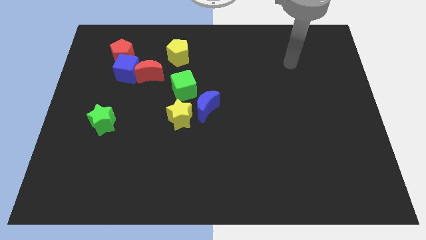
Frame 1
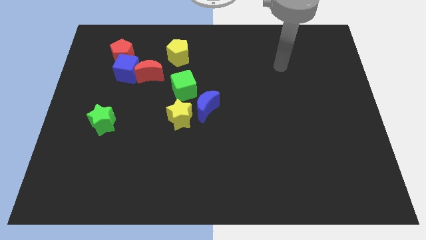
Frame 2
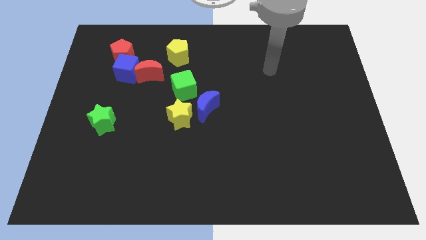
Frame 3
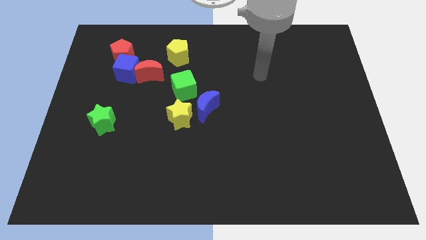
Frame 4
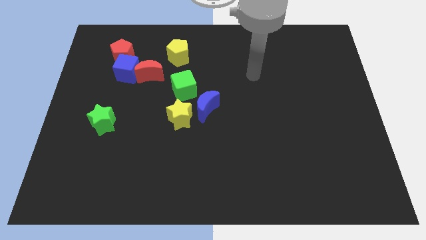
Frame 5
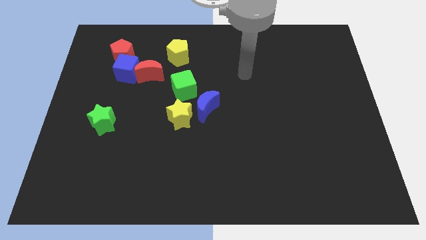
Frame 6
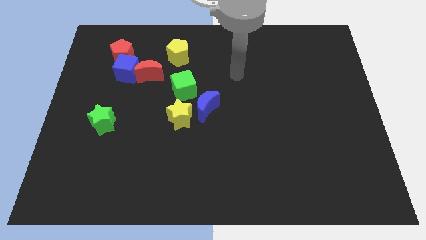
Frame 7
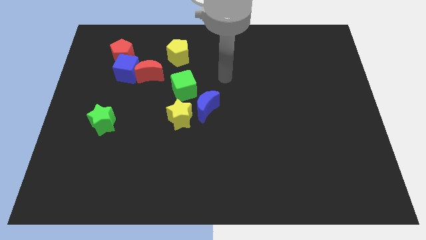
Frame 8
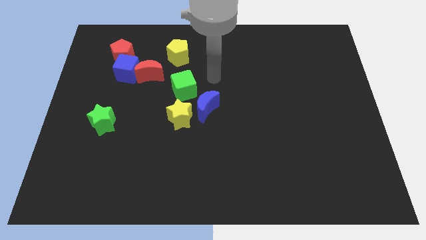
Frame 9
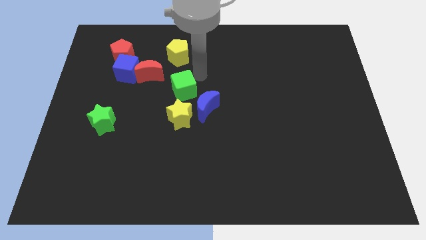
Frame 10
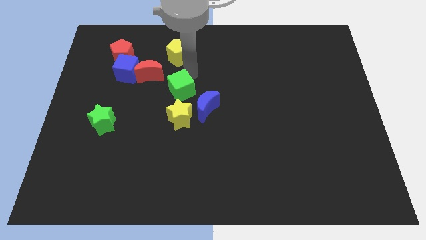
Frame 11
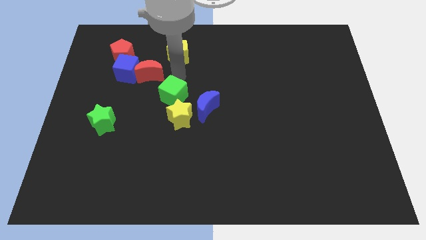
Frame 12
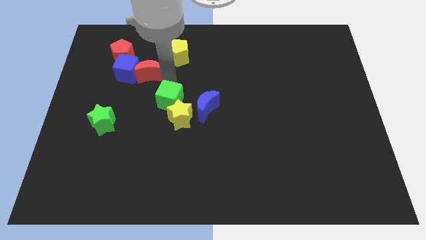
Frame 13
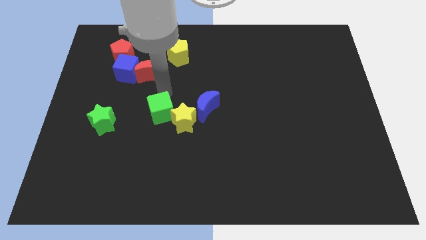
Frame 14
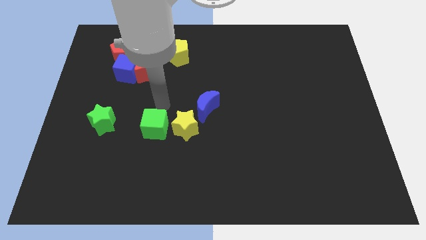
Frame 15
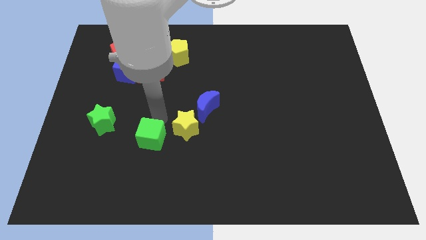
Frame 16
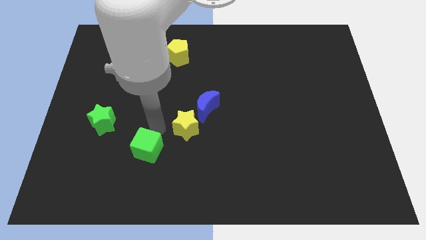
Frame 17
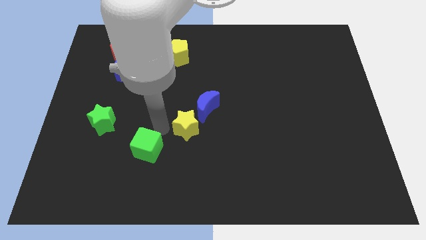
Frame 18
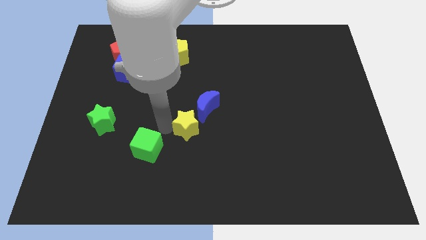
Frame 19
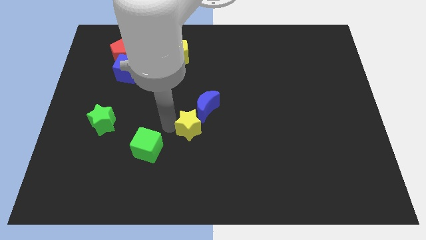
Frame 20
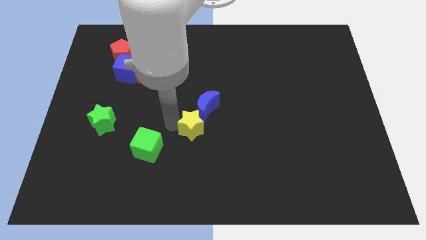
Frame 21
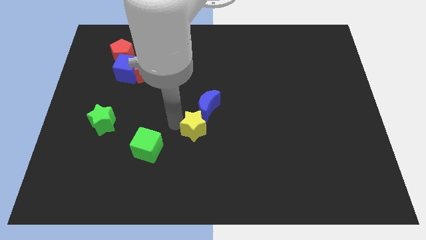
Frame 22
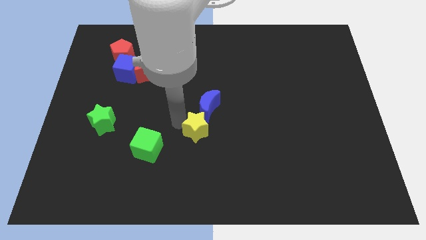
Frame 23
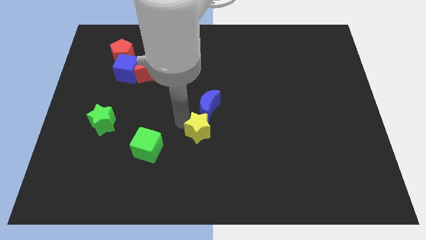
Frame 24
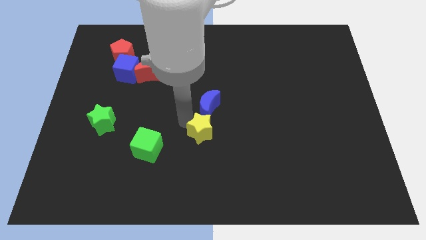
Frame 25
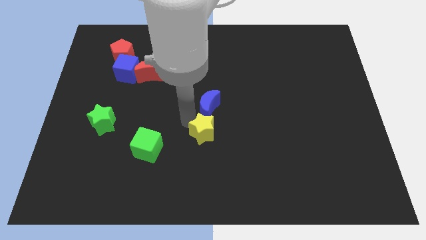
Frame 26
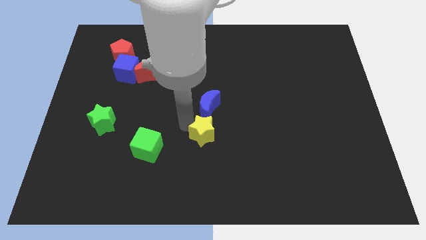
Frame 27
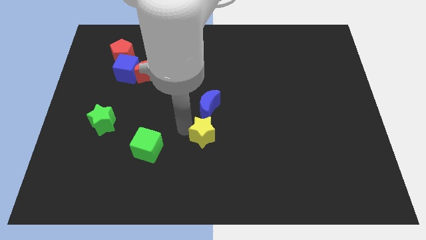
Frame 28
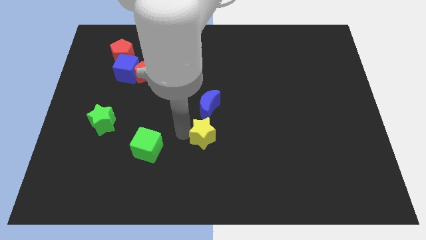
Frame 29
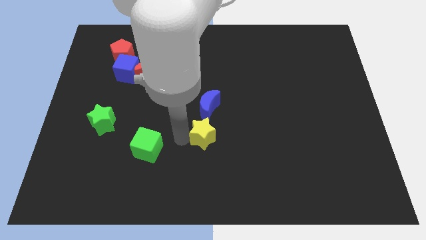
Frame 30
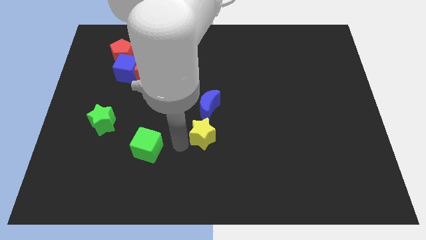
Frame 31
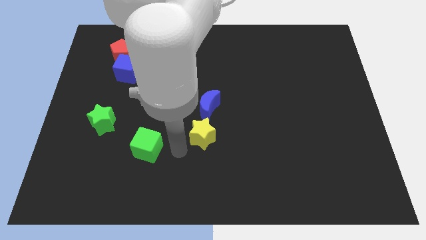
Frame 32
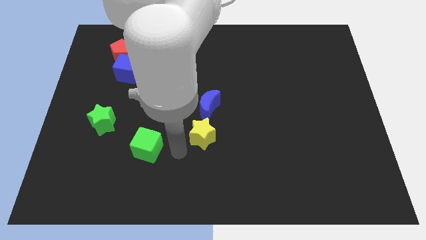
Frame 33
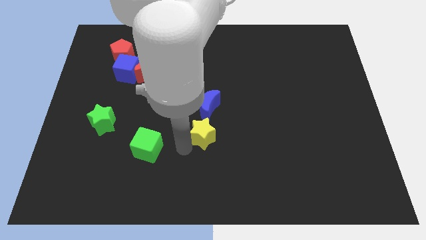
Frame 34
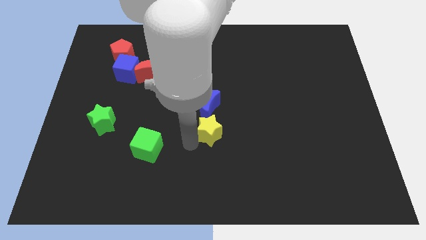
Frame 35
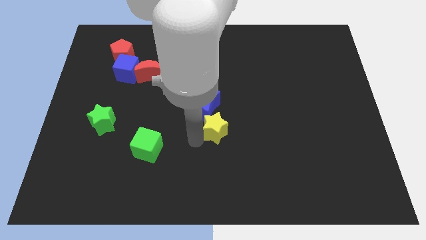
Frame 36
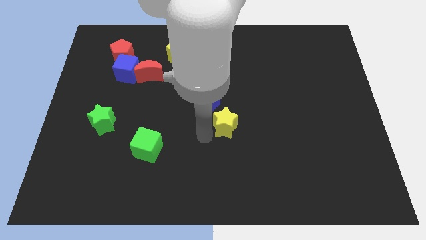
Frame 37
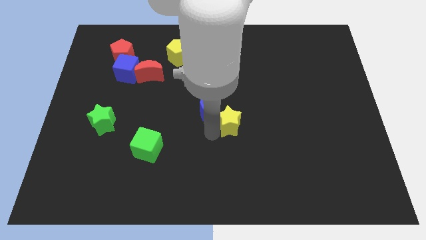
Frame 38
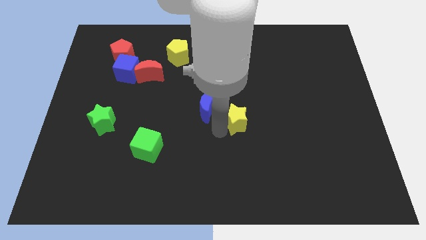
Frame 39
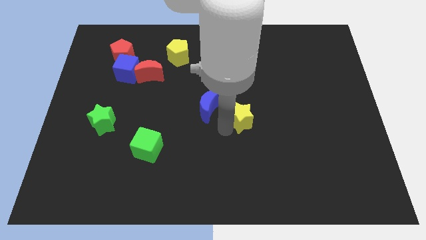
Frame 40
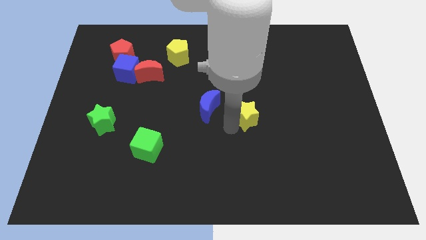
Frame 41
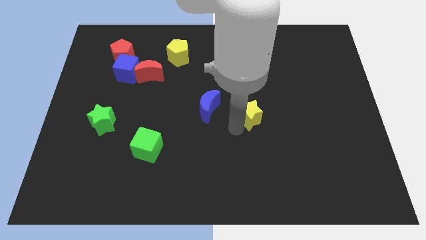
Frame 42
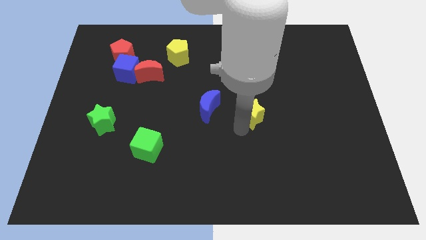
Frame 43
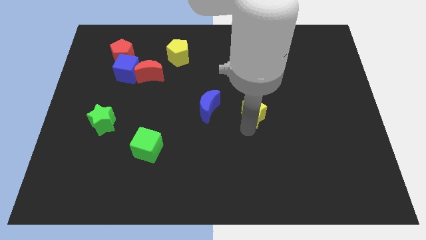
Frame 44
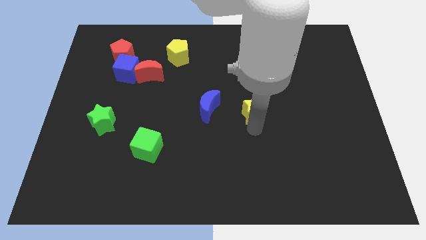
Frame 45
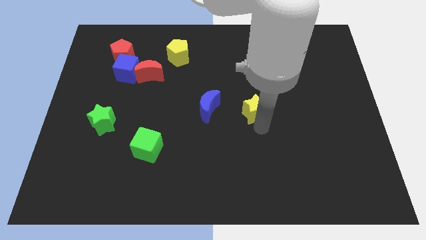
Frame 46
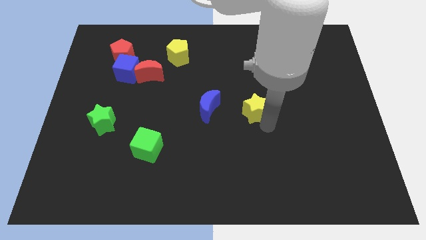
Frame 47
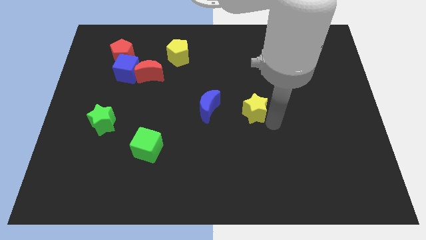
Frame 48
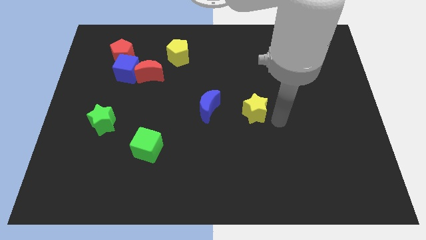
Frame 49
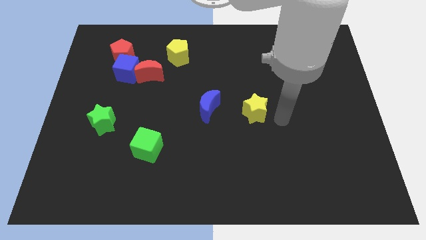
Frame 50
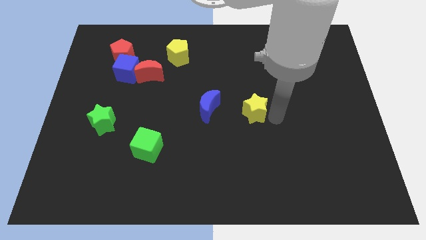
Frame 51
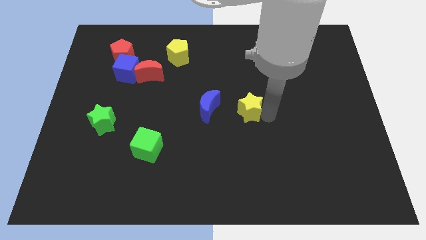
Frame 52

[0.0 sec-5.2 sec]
slightly move the yellow star upwards and then to the right

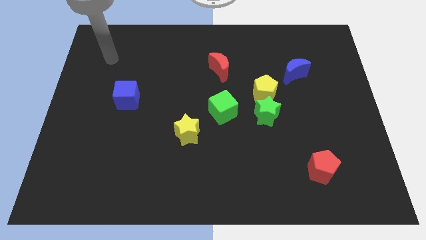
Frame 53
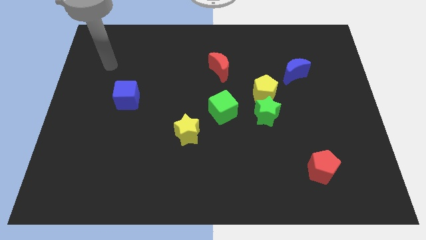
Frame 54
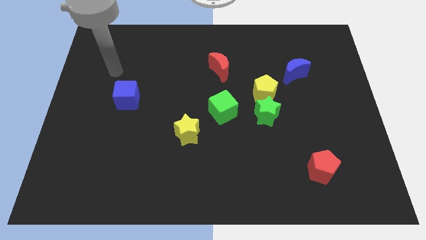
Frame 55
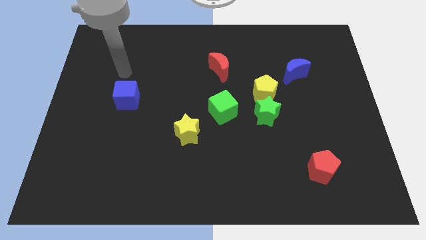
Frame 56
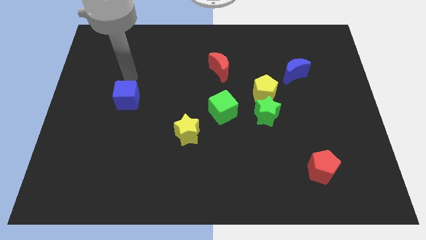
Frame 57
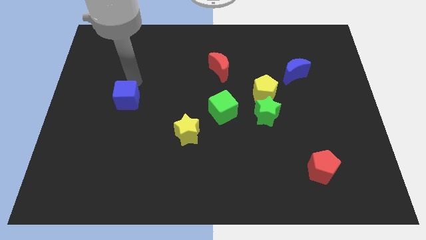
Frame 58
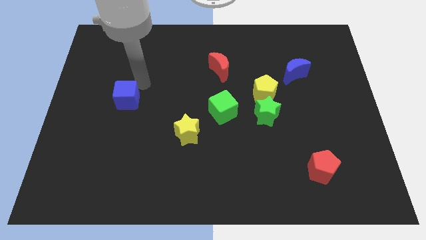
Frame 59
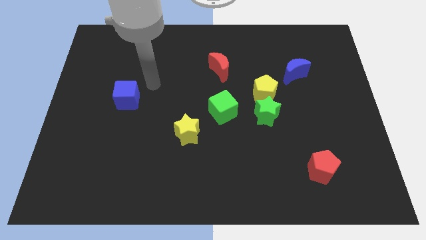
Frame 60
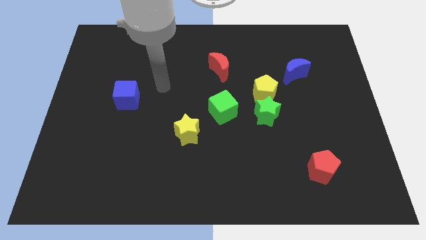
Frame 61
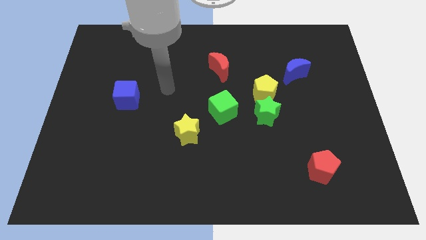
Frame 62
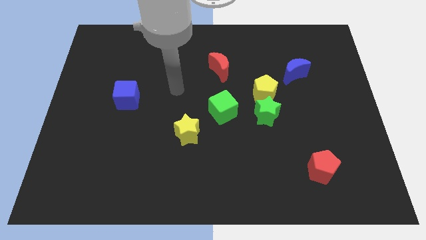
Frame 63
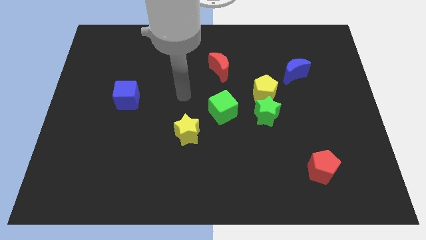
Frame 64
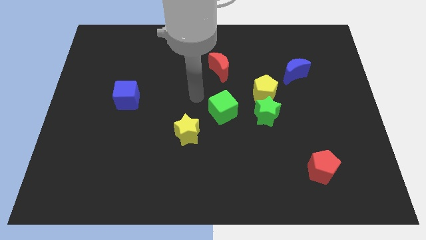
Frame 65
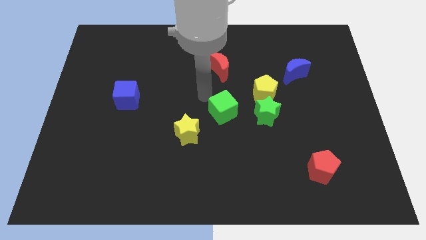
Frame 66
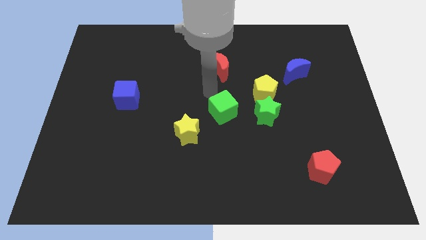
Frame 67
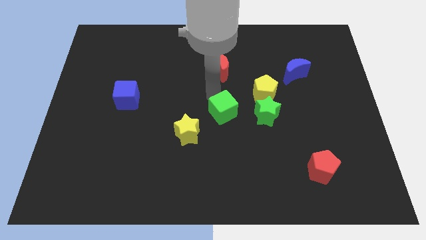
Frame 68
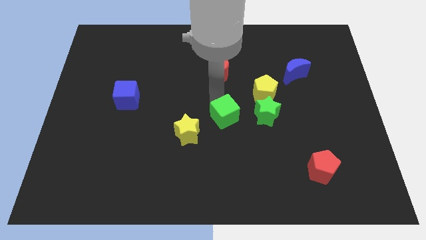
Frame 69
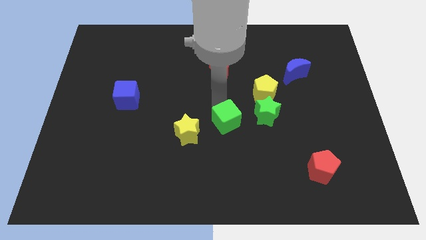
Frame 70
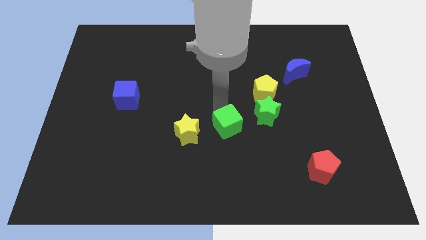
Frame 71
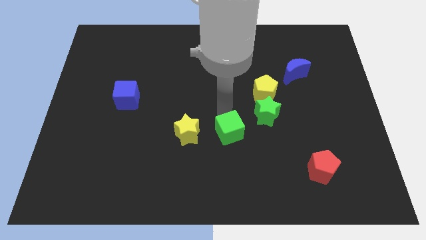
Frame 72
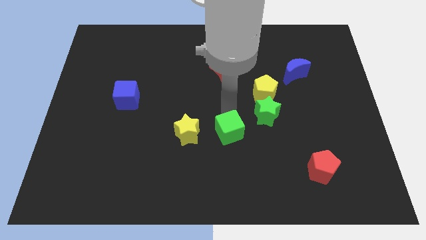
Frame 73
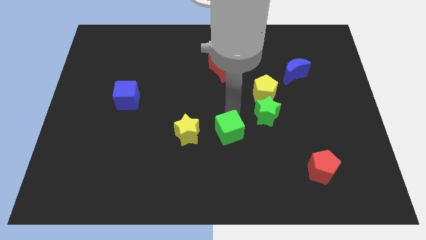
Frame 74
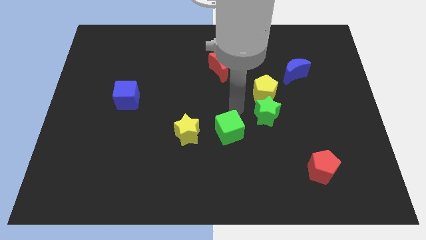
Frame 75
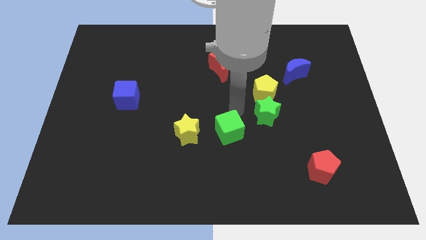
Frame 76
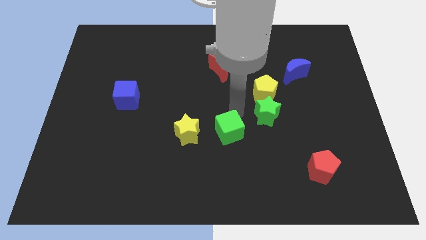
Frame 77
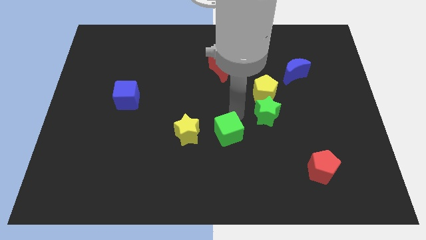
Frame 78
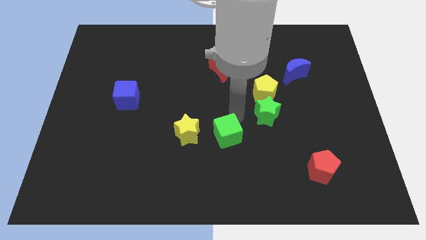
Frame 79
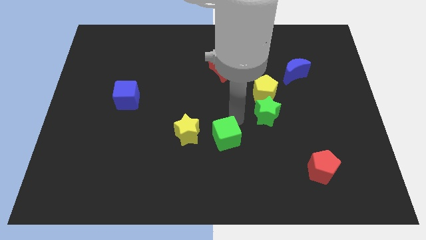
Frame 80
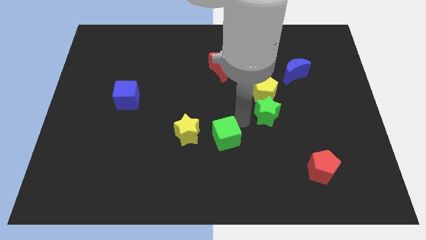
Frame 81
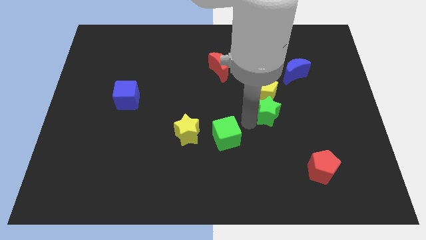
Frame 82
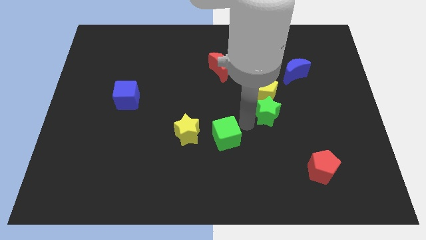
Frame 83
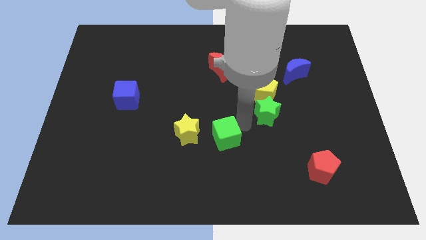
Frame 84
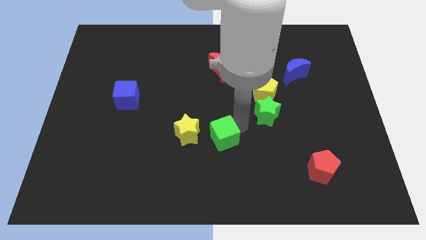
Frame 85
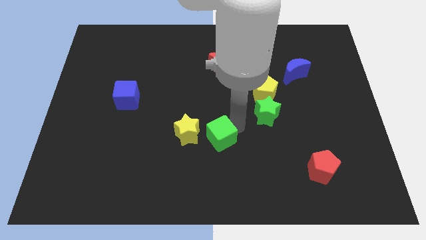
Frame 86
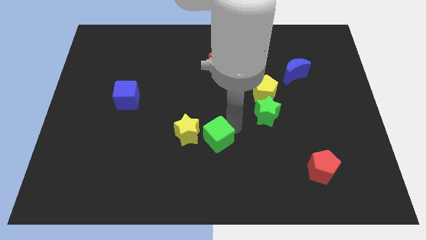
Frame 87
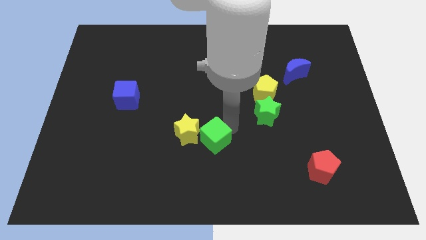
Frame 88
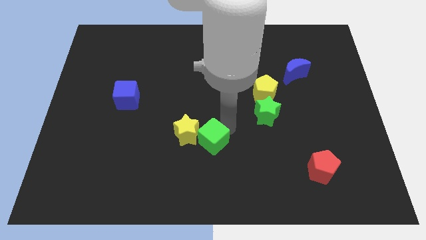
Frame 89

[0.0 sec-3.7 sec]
push the green cube downwards and then to the left a little bit
